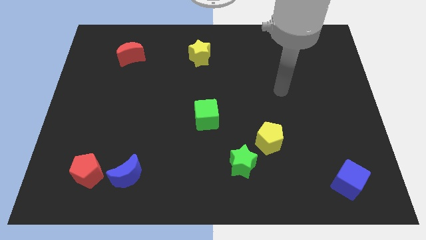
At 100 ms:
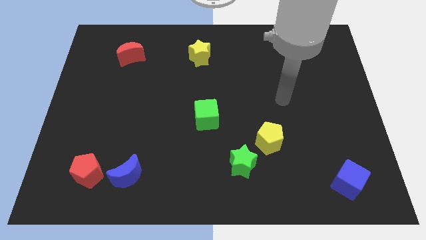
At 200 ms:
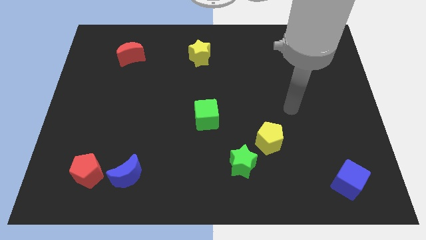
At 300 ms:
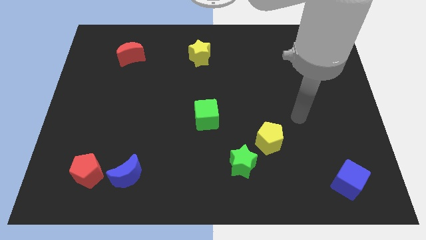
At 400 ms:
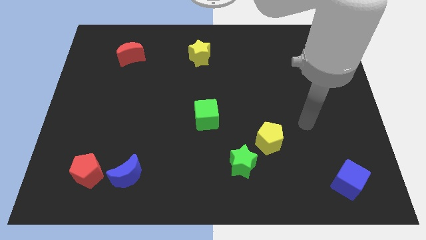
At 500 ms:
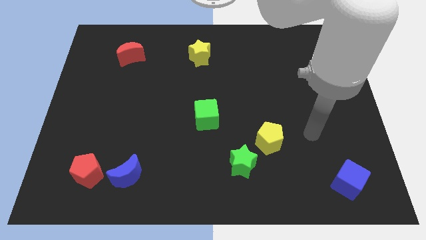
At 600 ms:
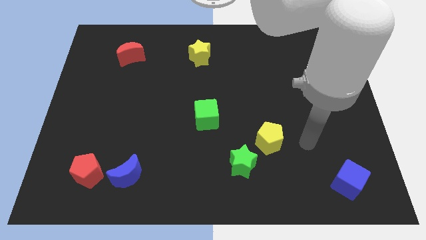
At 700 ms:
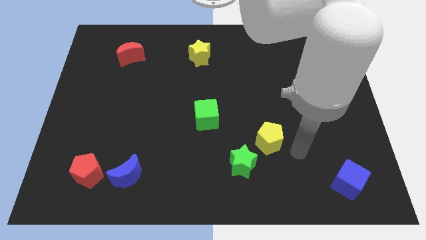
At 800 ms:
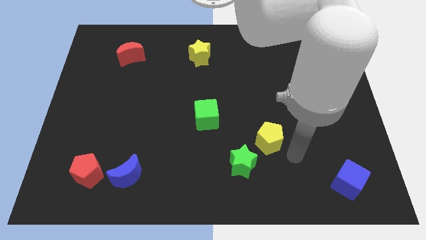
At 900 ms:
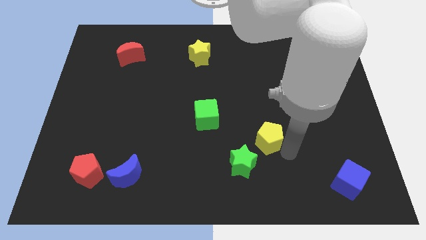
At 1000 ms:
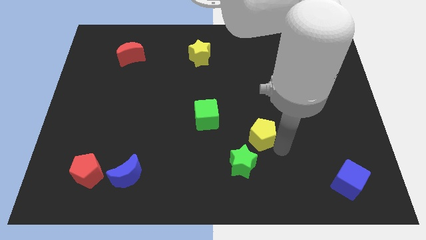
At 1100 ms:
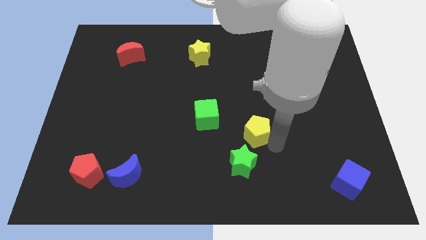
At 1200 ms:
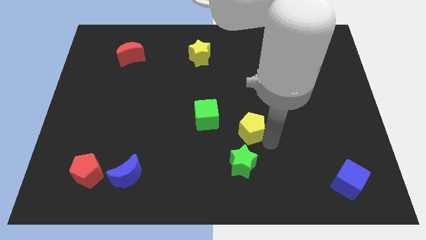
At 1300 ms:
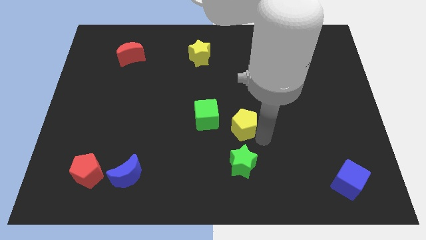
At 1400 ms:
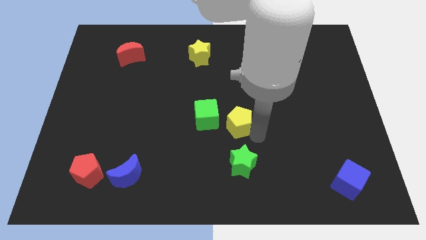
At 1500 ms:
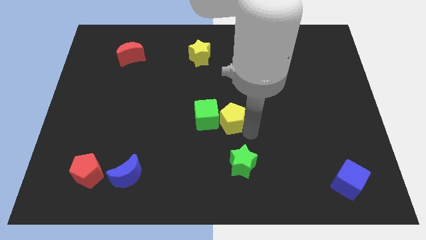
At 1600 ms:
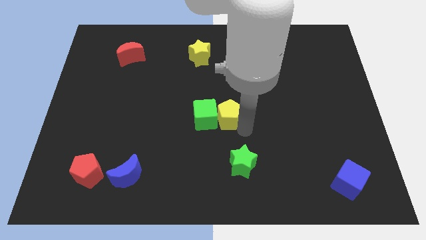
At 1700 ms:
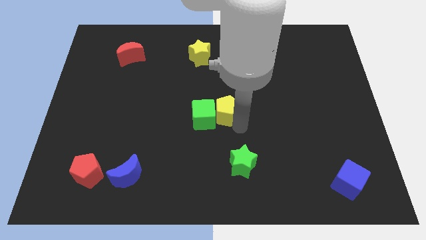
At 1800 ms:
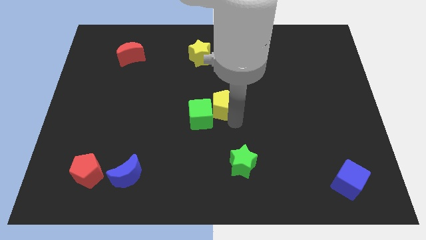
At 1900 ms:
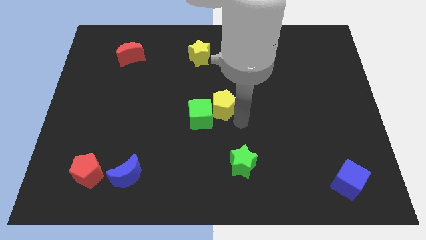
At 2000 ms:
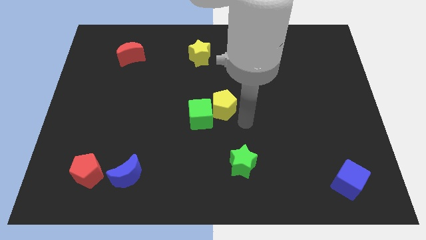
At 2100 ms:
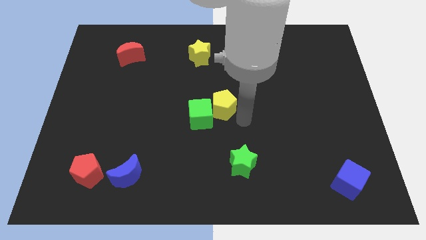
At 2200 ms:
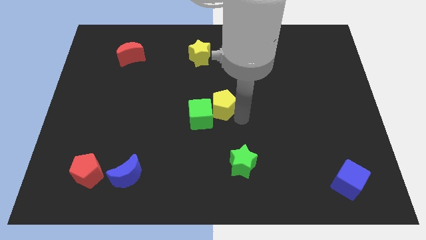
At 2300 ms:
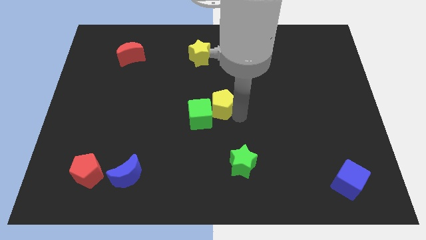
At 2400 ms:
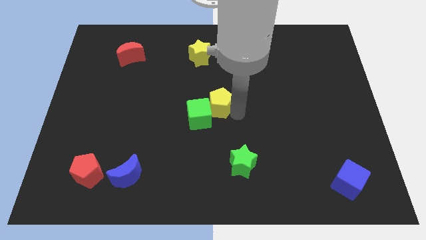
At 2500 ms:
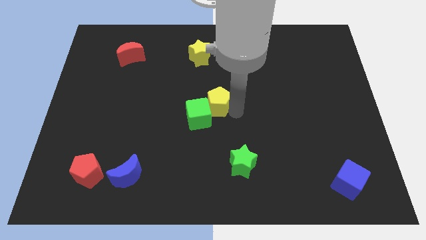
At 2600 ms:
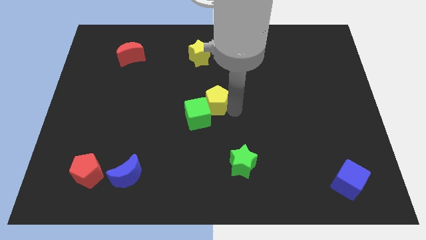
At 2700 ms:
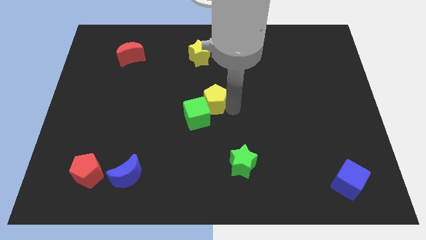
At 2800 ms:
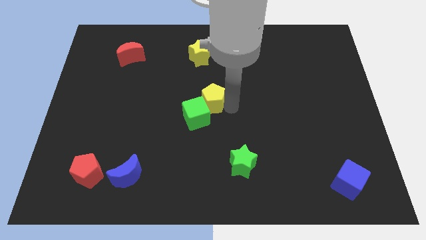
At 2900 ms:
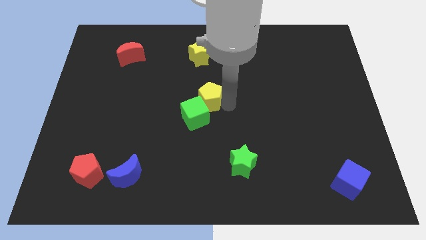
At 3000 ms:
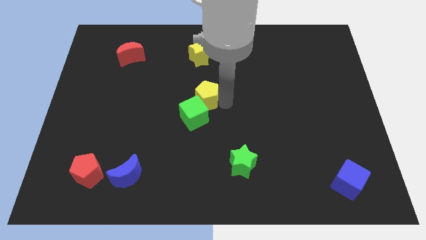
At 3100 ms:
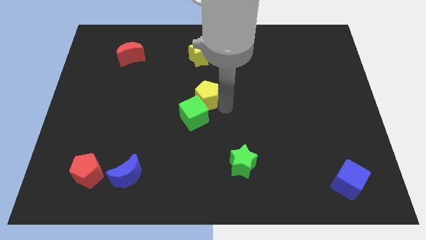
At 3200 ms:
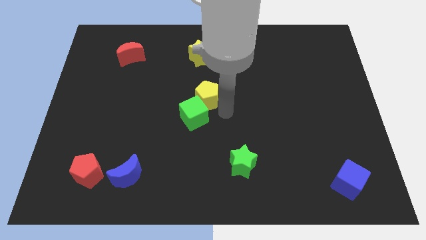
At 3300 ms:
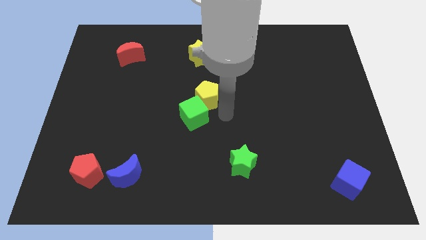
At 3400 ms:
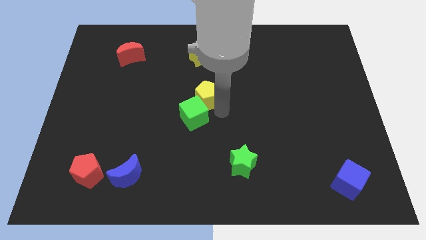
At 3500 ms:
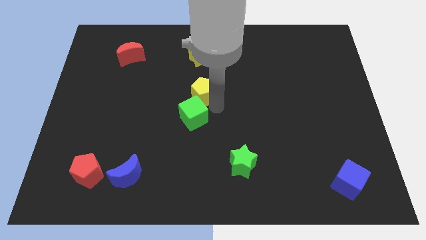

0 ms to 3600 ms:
slide the yellow pentagon upwards and left

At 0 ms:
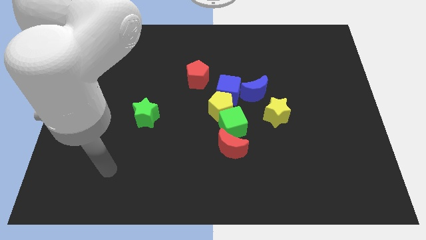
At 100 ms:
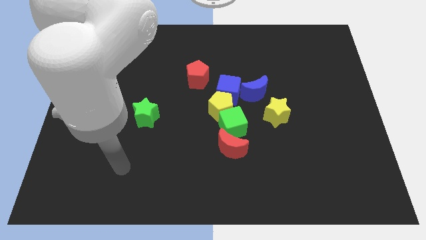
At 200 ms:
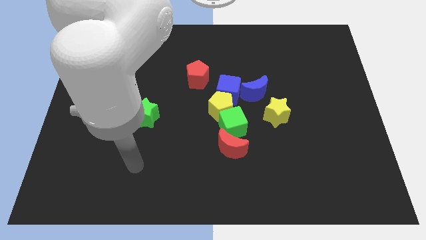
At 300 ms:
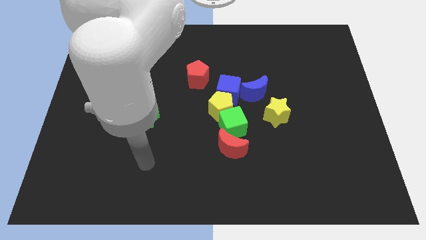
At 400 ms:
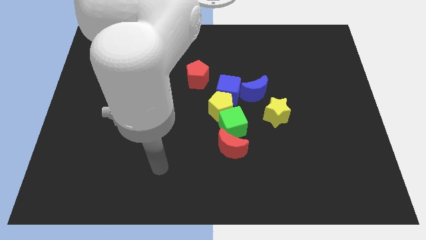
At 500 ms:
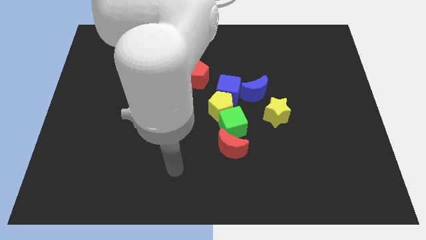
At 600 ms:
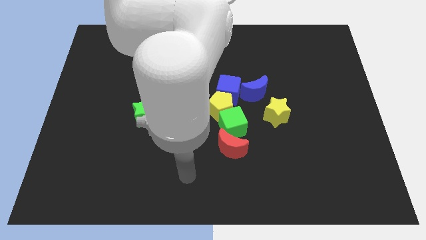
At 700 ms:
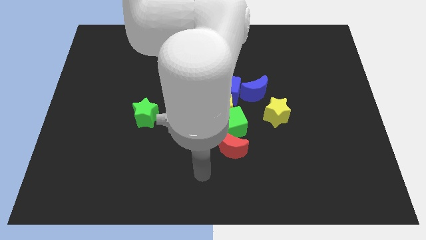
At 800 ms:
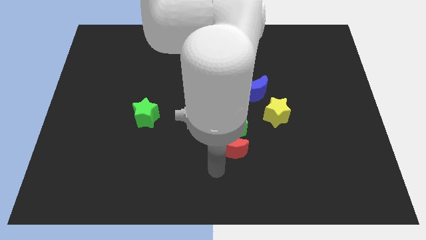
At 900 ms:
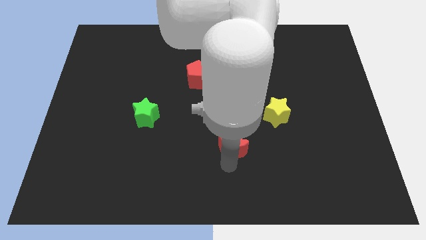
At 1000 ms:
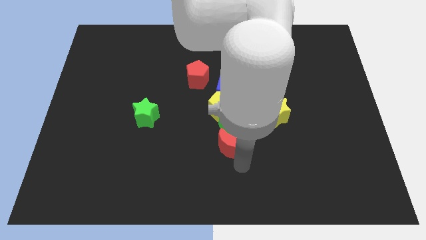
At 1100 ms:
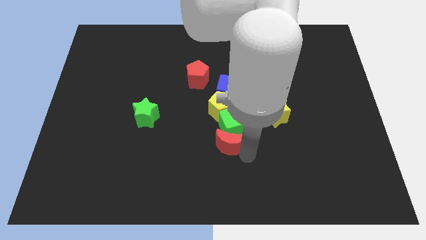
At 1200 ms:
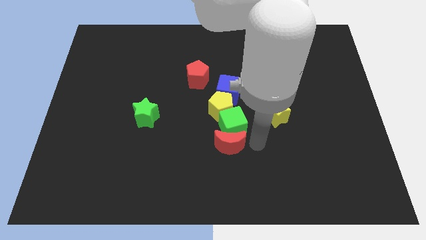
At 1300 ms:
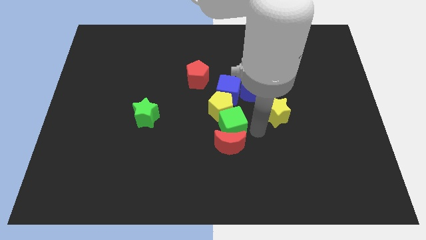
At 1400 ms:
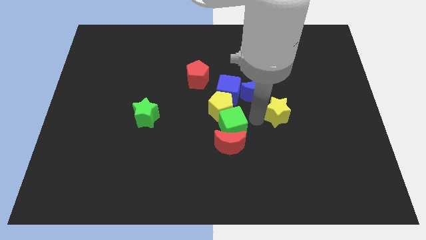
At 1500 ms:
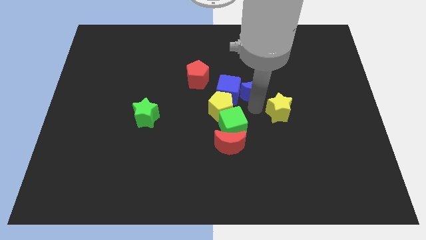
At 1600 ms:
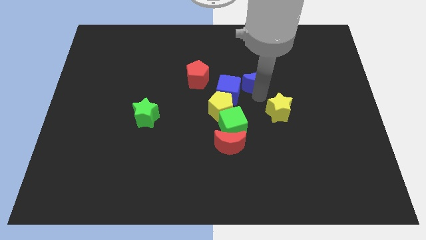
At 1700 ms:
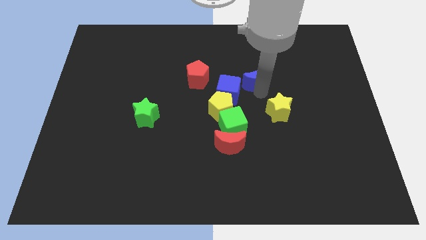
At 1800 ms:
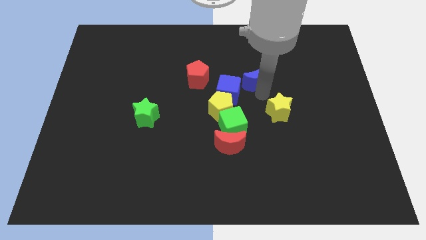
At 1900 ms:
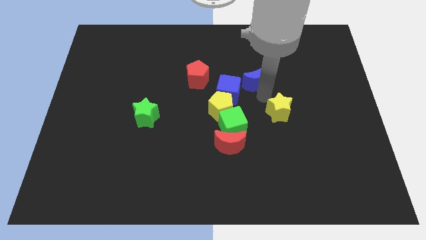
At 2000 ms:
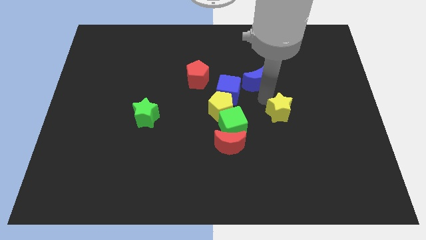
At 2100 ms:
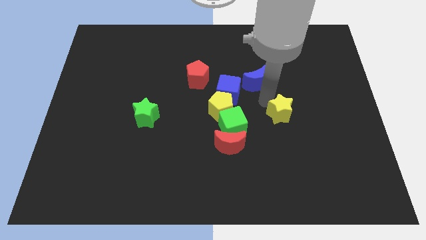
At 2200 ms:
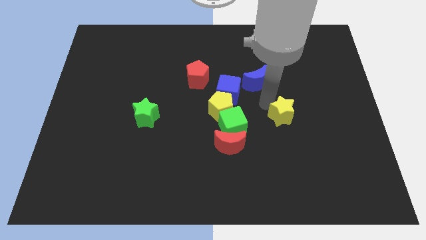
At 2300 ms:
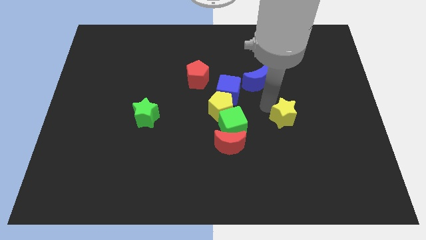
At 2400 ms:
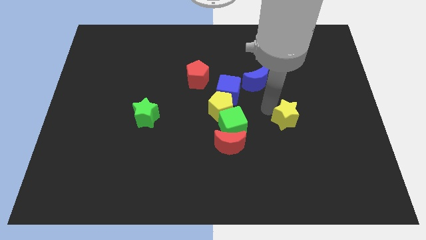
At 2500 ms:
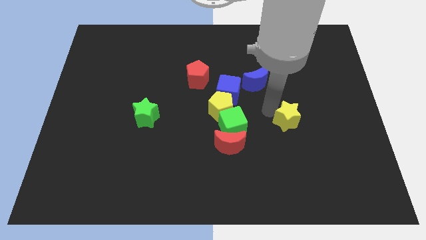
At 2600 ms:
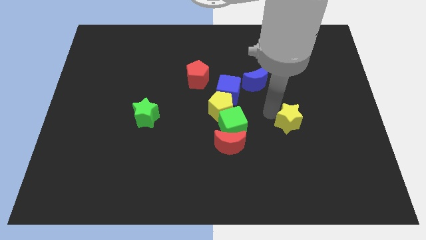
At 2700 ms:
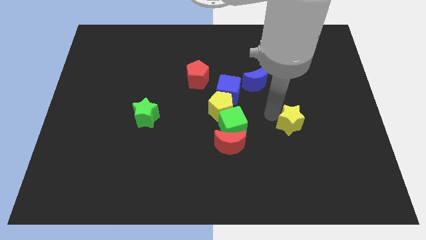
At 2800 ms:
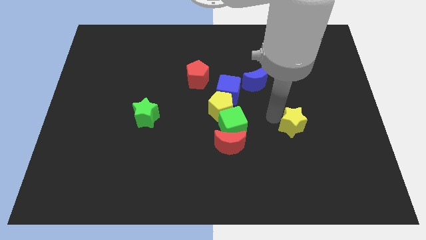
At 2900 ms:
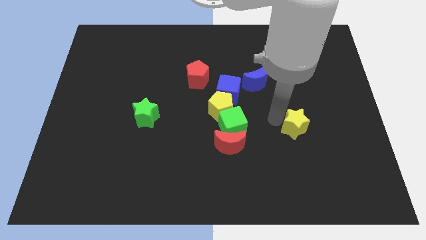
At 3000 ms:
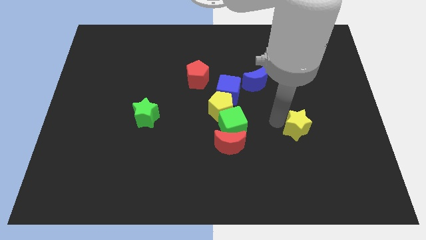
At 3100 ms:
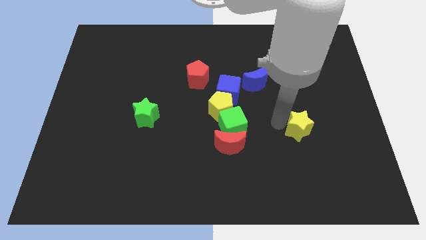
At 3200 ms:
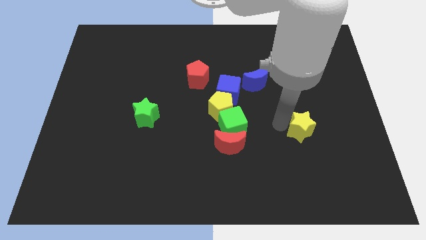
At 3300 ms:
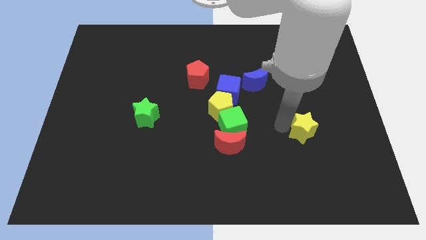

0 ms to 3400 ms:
slightly move the yellow star downwards and then to the right

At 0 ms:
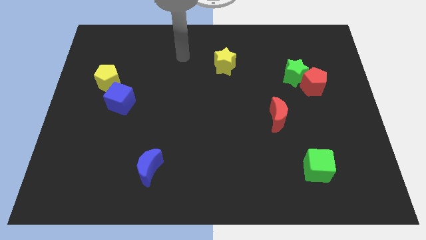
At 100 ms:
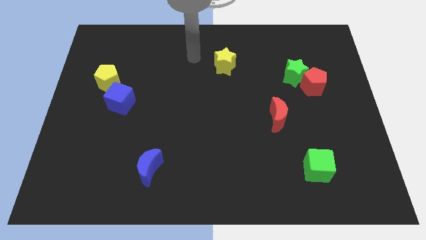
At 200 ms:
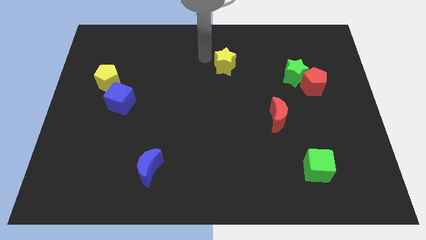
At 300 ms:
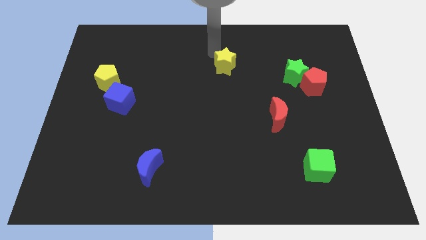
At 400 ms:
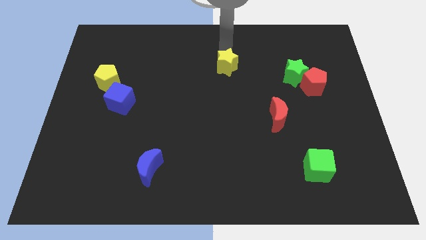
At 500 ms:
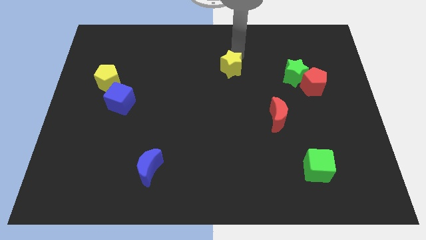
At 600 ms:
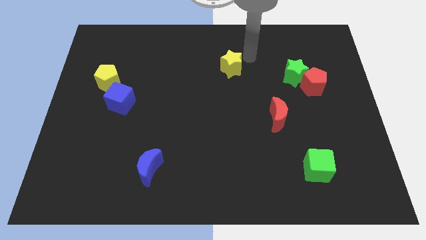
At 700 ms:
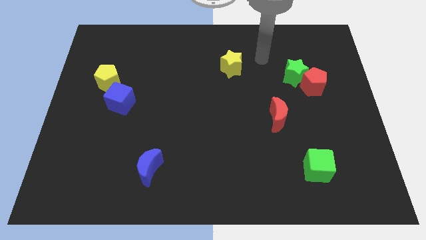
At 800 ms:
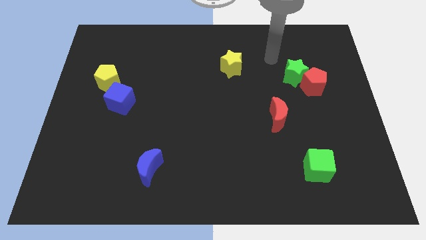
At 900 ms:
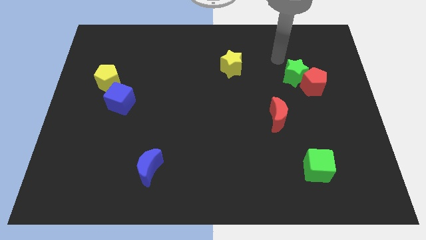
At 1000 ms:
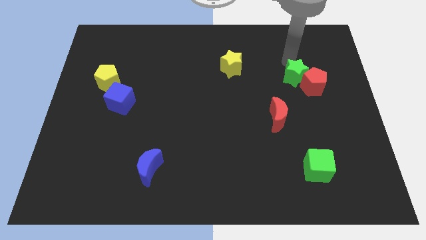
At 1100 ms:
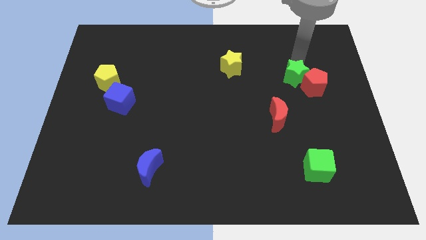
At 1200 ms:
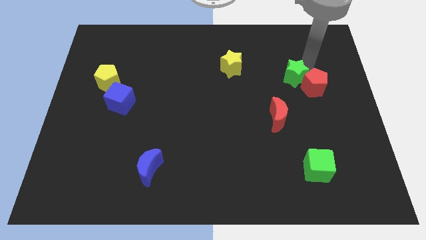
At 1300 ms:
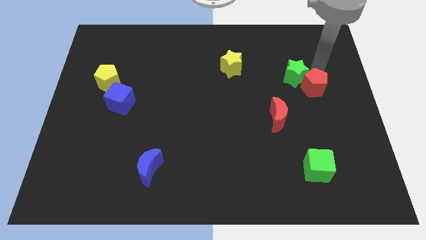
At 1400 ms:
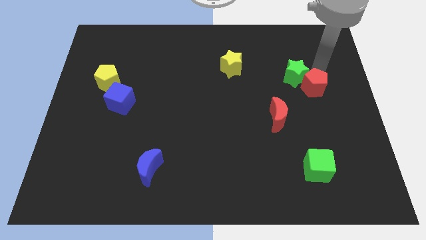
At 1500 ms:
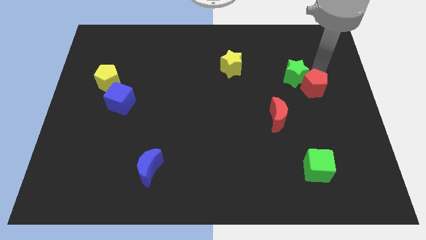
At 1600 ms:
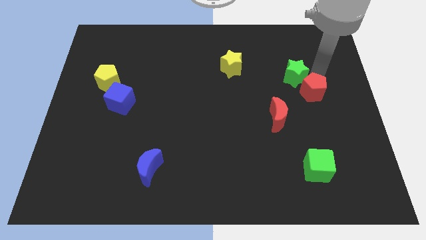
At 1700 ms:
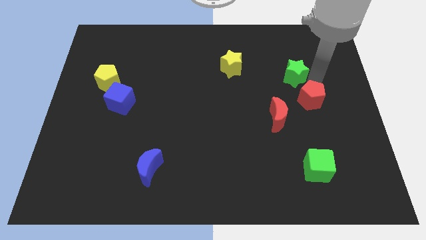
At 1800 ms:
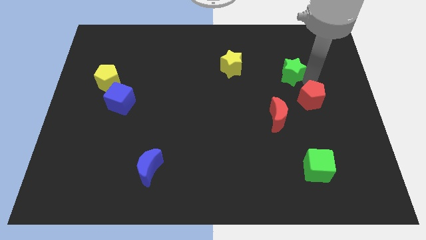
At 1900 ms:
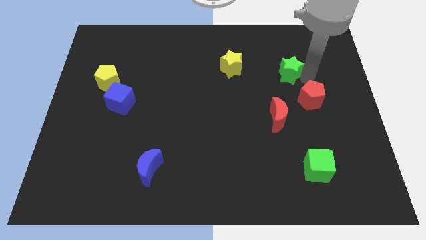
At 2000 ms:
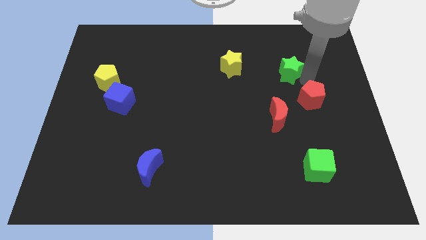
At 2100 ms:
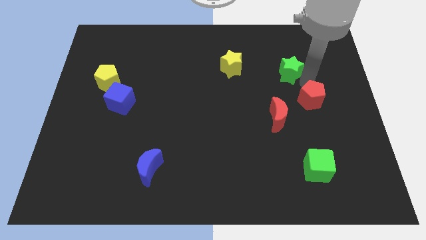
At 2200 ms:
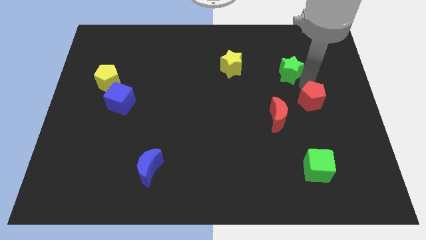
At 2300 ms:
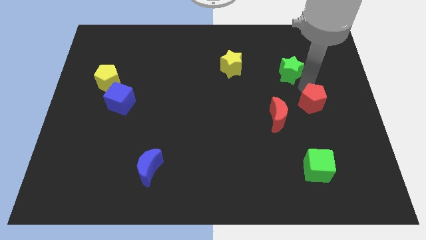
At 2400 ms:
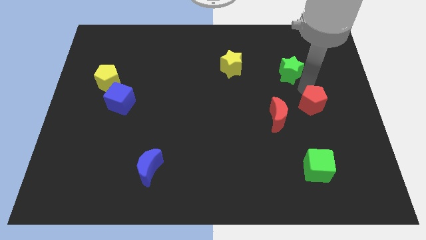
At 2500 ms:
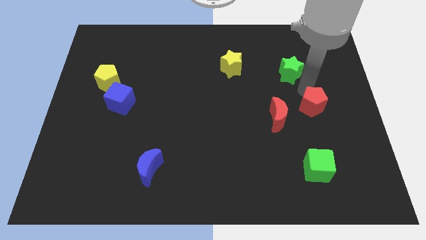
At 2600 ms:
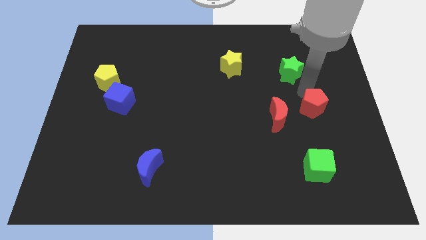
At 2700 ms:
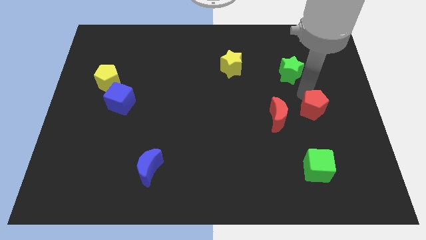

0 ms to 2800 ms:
slightly move the red pentagon down
